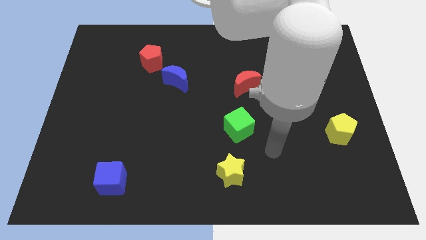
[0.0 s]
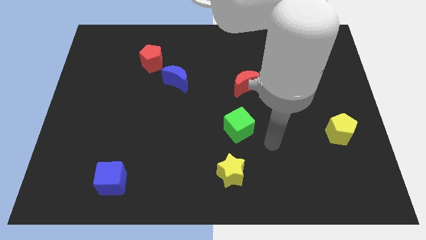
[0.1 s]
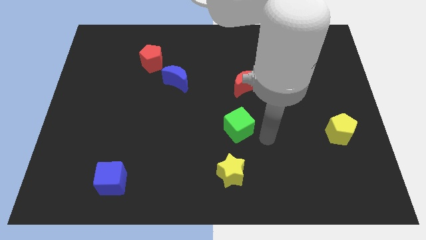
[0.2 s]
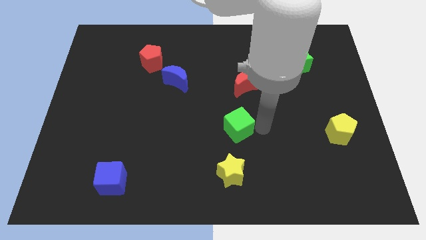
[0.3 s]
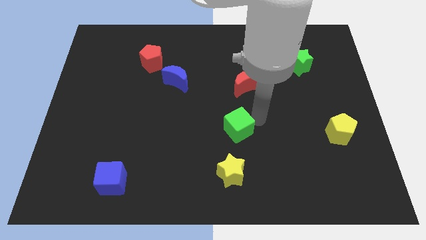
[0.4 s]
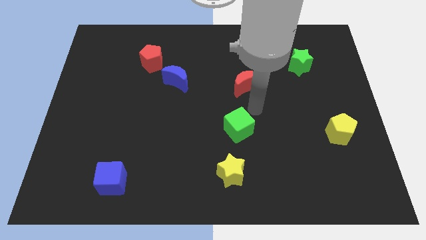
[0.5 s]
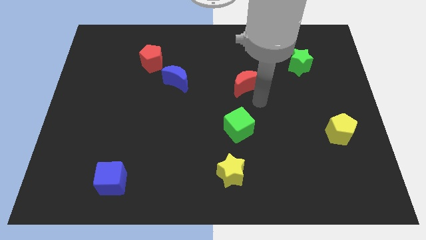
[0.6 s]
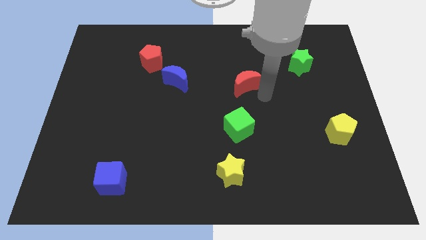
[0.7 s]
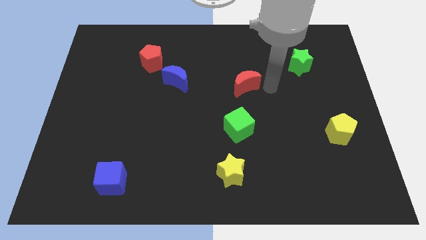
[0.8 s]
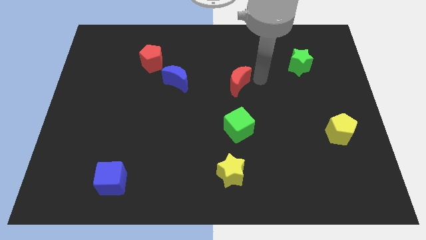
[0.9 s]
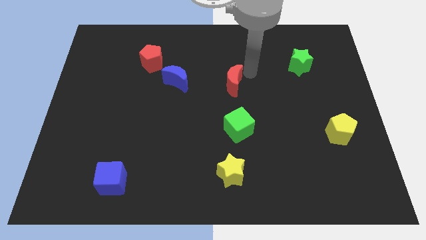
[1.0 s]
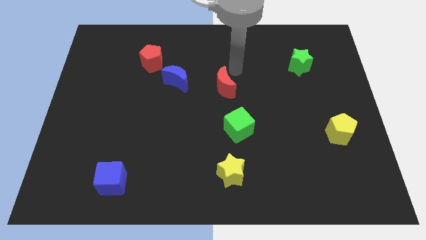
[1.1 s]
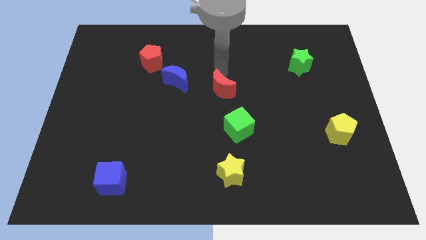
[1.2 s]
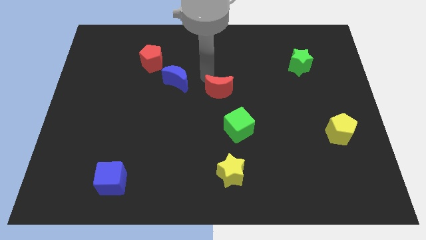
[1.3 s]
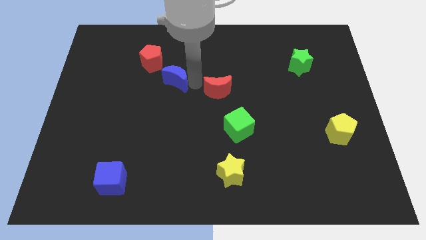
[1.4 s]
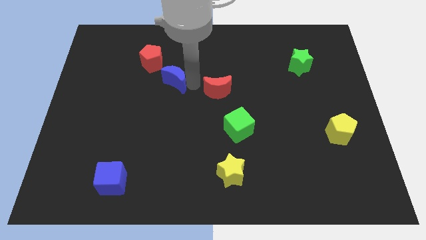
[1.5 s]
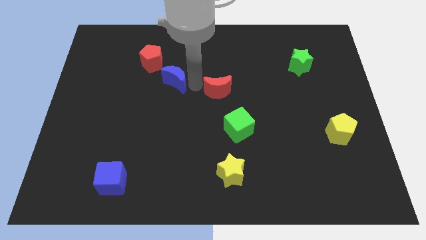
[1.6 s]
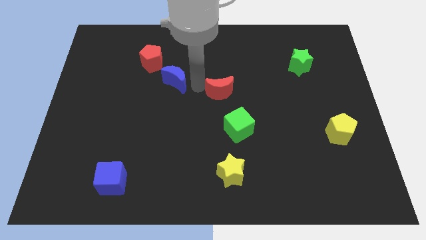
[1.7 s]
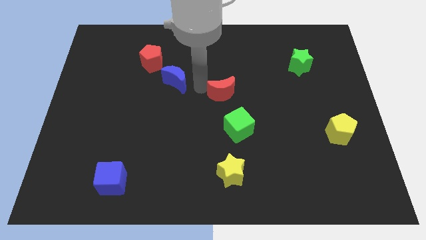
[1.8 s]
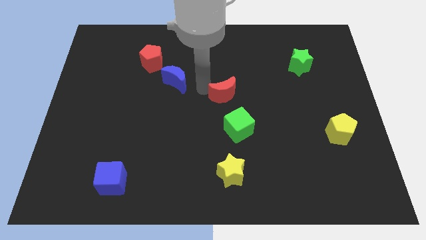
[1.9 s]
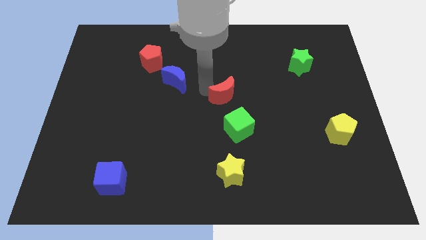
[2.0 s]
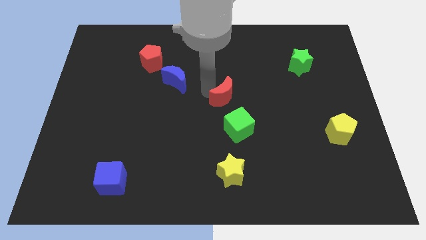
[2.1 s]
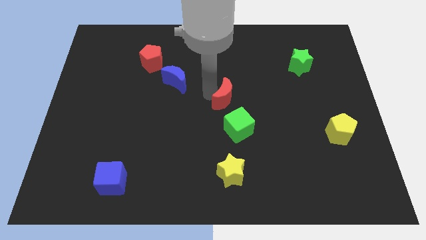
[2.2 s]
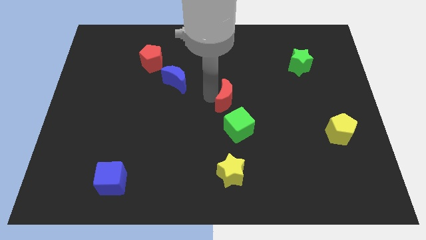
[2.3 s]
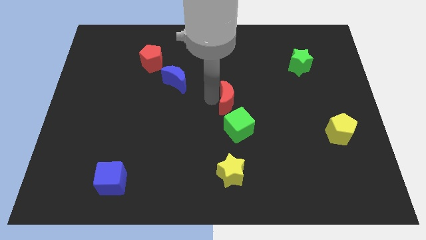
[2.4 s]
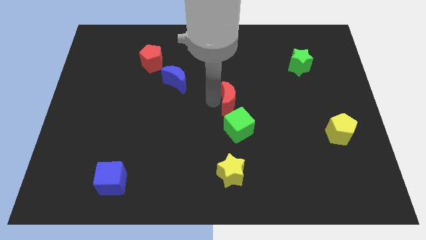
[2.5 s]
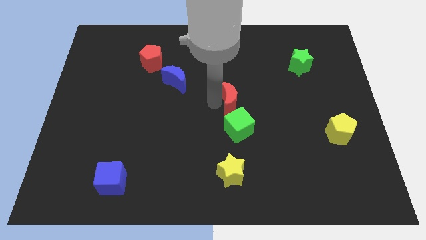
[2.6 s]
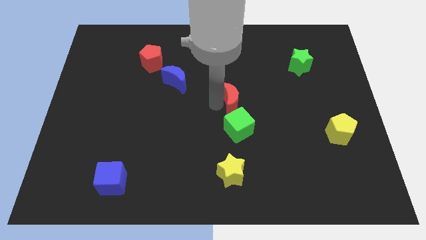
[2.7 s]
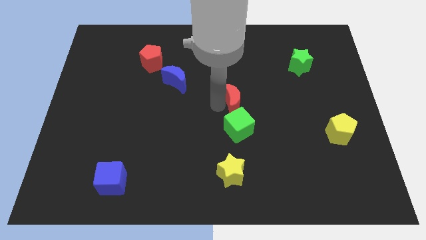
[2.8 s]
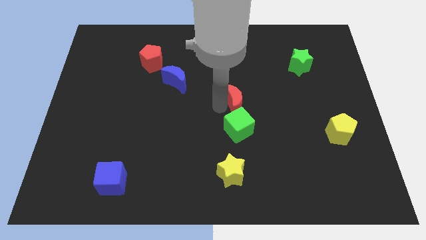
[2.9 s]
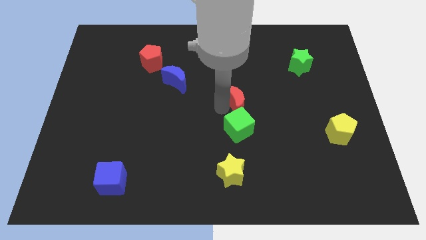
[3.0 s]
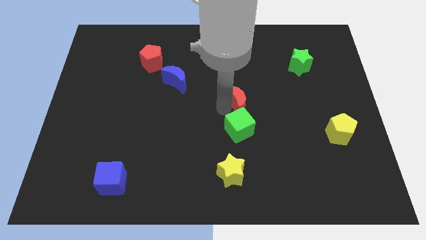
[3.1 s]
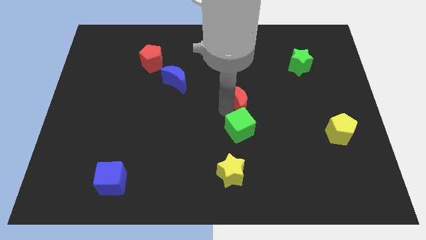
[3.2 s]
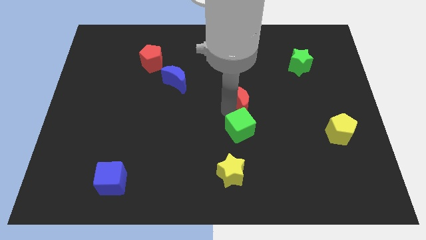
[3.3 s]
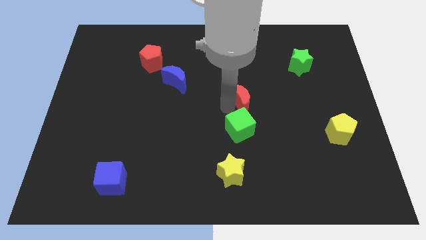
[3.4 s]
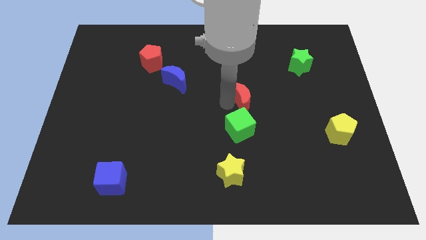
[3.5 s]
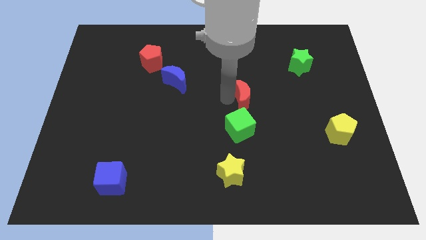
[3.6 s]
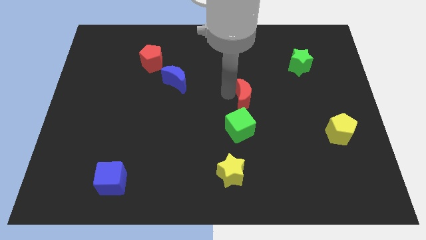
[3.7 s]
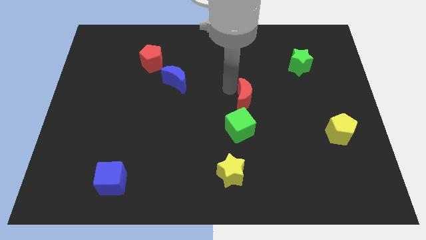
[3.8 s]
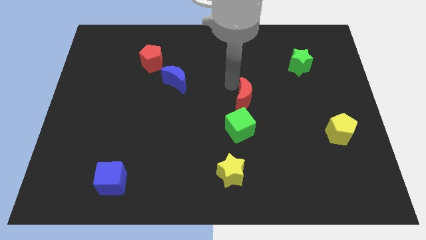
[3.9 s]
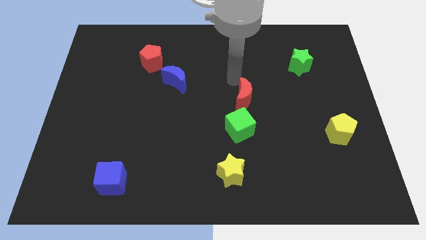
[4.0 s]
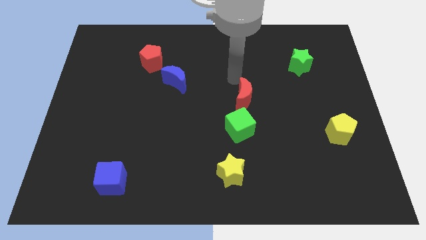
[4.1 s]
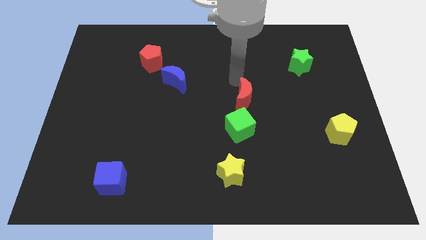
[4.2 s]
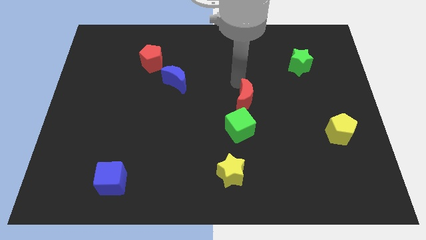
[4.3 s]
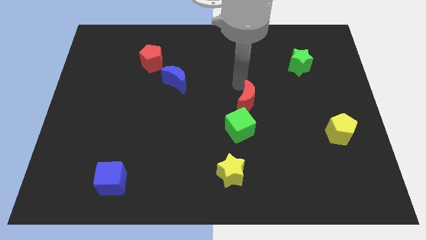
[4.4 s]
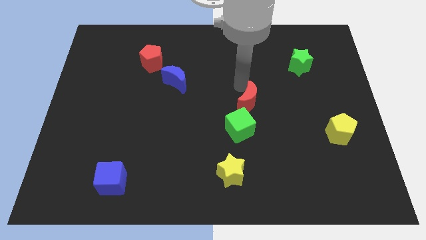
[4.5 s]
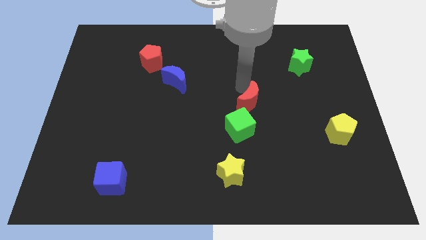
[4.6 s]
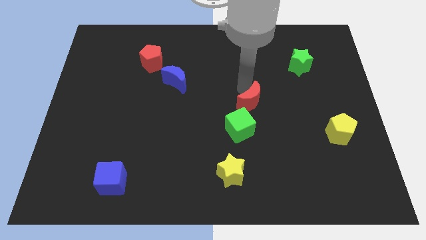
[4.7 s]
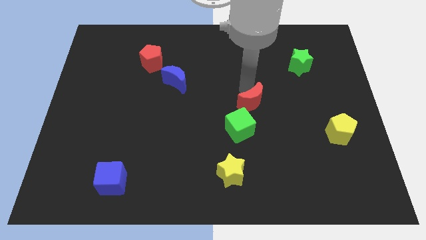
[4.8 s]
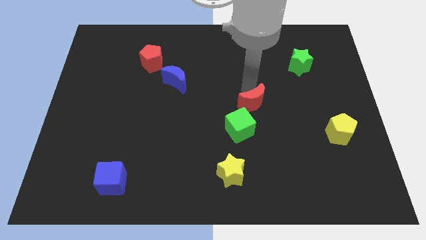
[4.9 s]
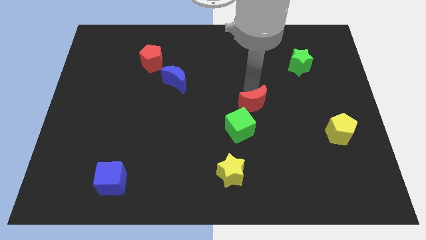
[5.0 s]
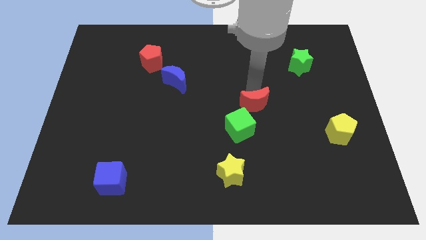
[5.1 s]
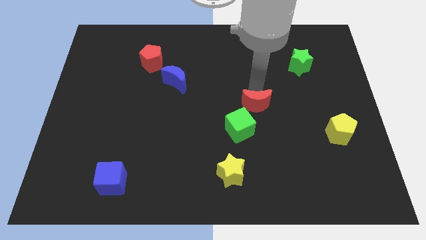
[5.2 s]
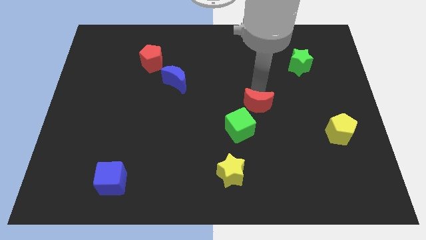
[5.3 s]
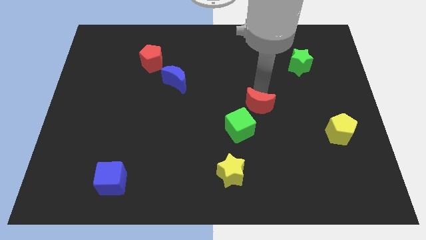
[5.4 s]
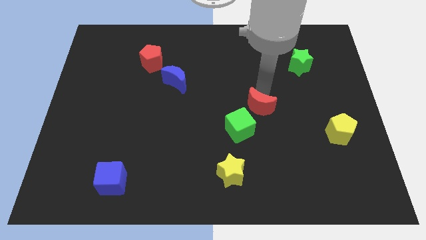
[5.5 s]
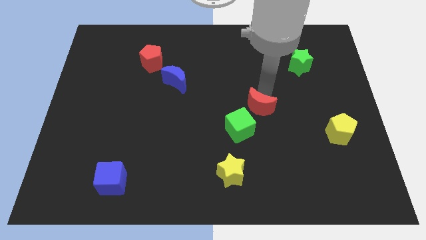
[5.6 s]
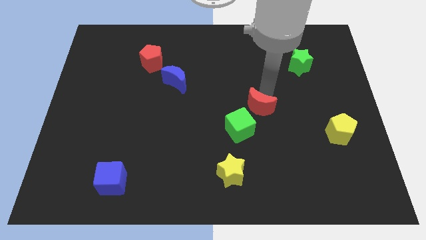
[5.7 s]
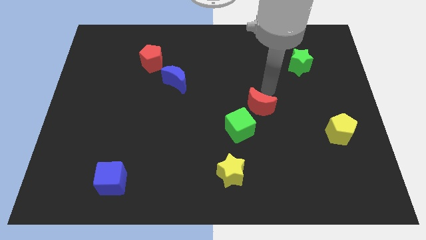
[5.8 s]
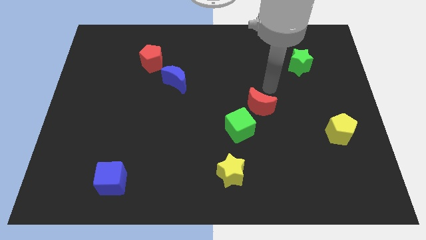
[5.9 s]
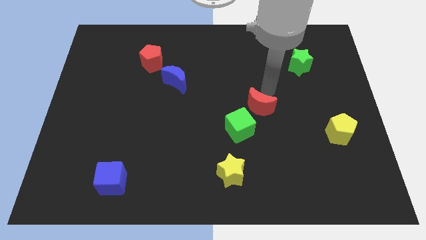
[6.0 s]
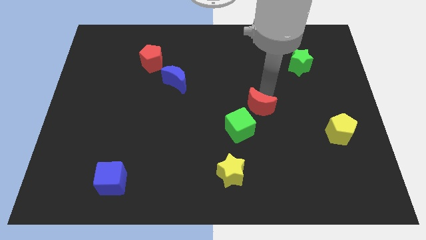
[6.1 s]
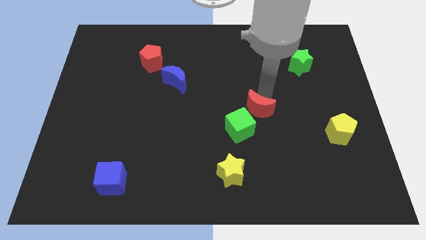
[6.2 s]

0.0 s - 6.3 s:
slightly push the red moon downwards

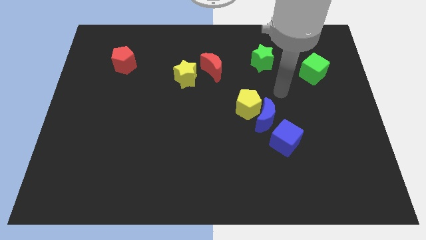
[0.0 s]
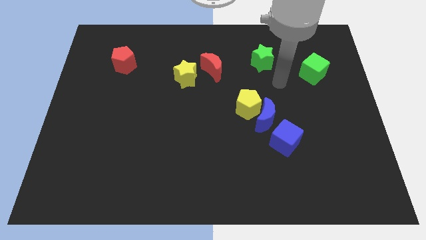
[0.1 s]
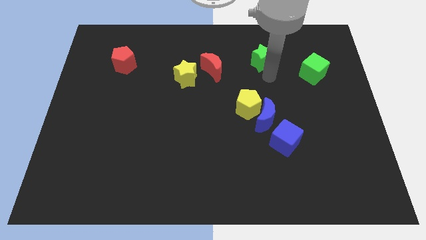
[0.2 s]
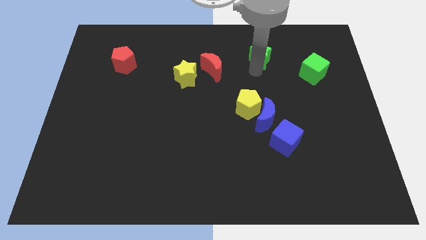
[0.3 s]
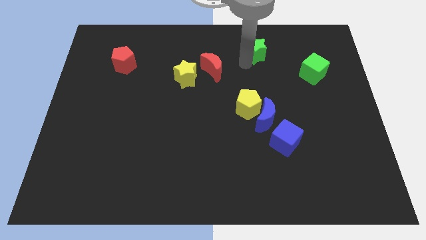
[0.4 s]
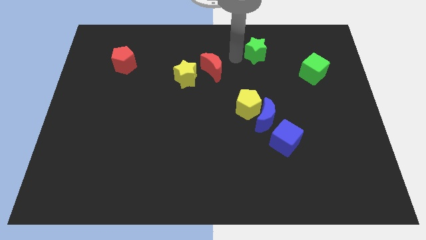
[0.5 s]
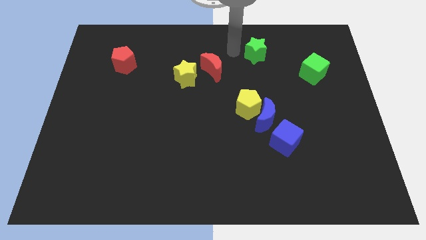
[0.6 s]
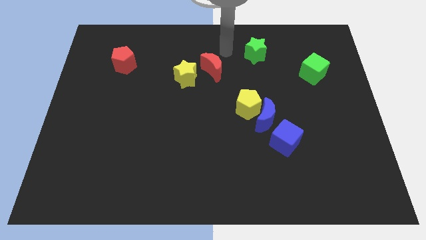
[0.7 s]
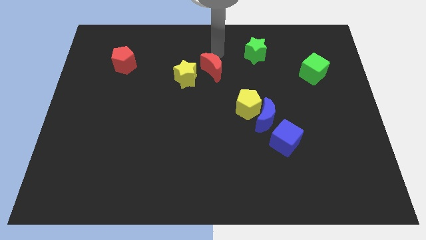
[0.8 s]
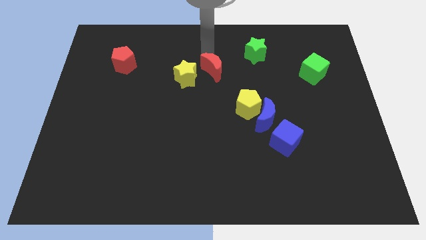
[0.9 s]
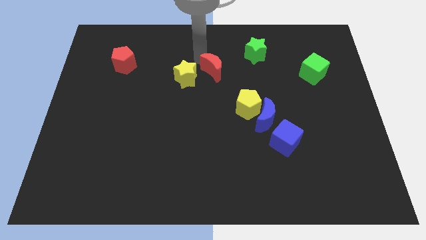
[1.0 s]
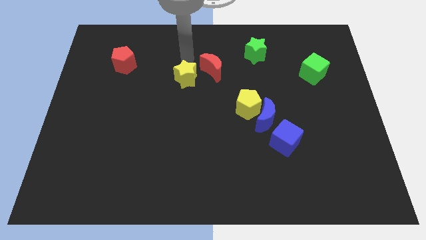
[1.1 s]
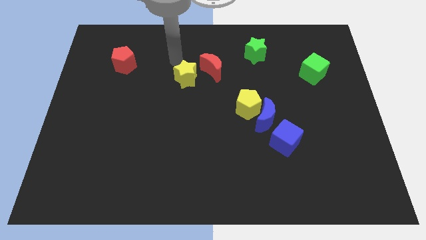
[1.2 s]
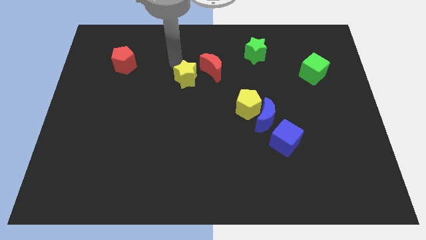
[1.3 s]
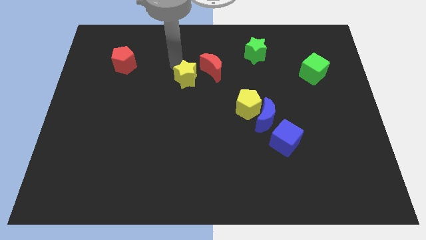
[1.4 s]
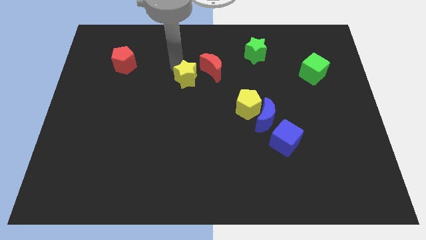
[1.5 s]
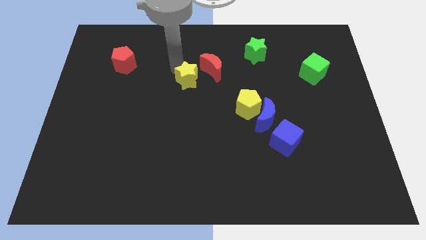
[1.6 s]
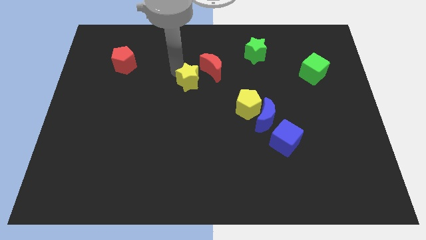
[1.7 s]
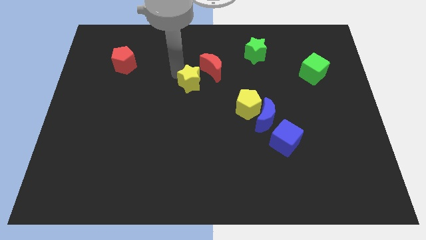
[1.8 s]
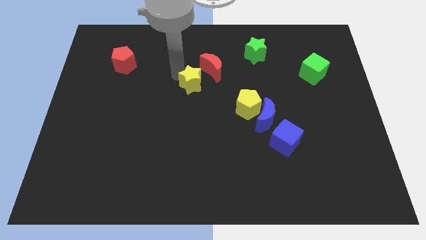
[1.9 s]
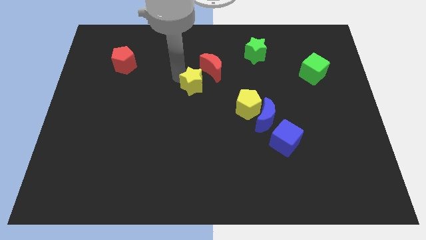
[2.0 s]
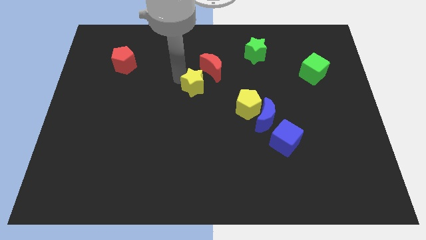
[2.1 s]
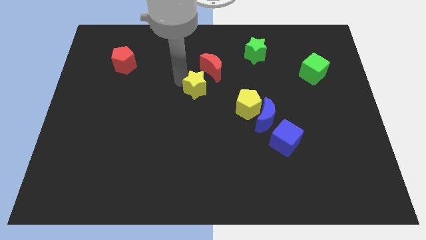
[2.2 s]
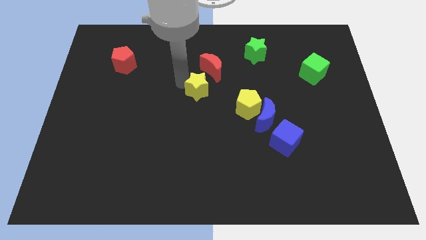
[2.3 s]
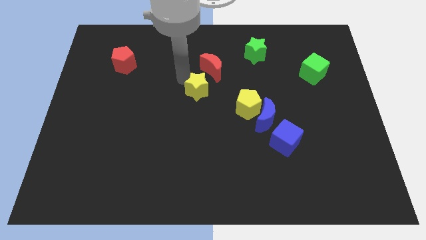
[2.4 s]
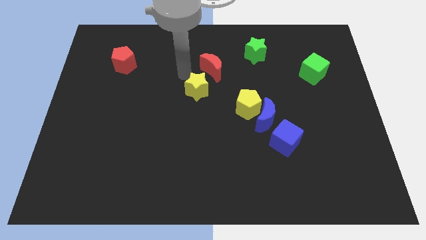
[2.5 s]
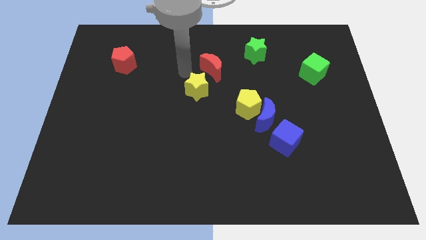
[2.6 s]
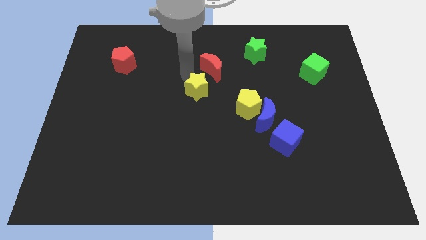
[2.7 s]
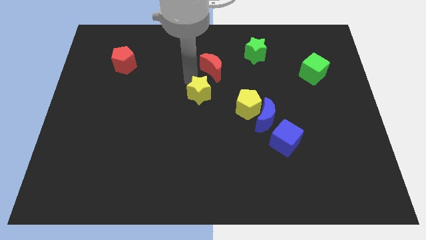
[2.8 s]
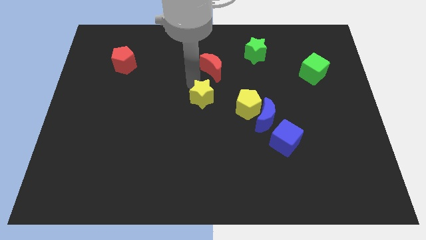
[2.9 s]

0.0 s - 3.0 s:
move the yellow star somewhat down and right
